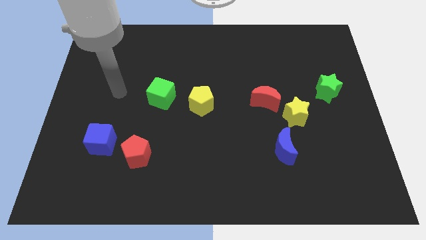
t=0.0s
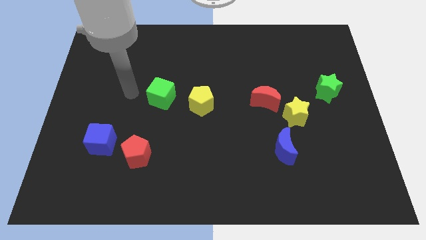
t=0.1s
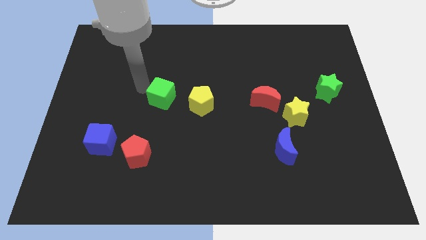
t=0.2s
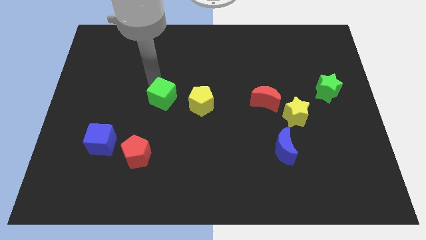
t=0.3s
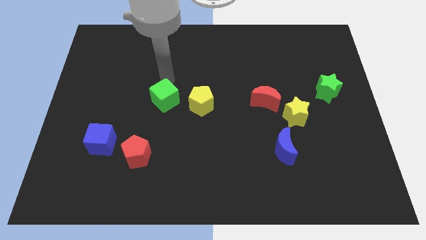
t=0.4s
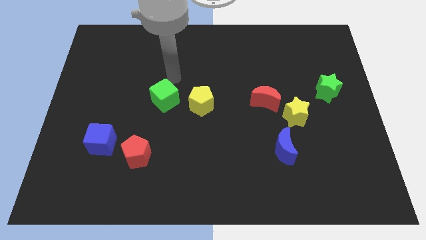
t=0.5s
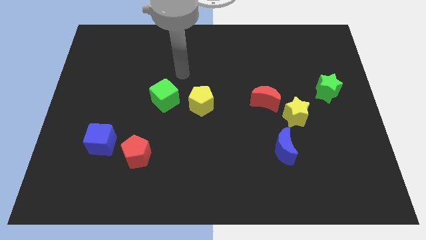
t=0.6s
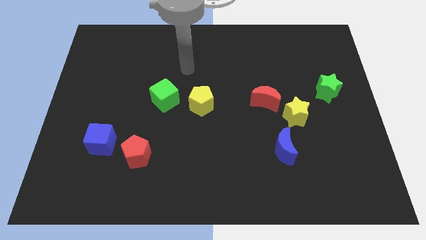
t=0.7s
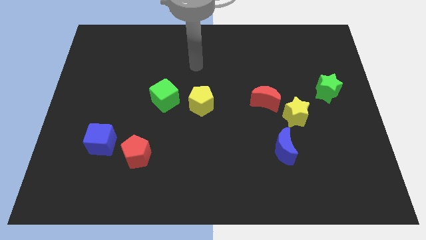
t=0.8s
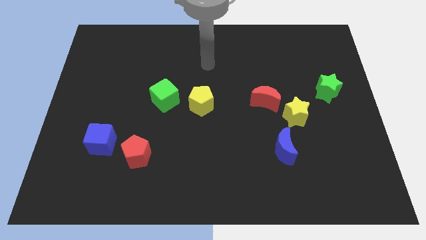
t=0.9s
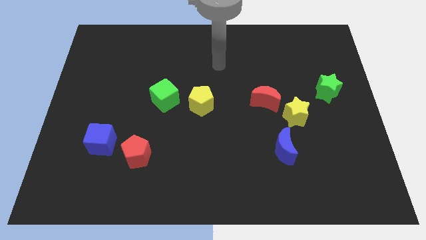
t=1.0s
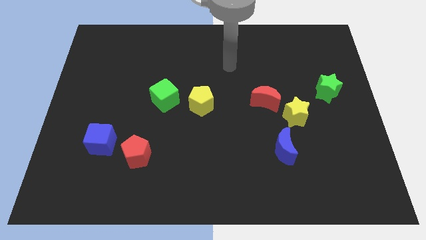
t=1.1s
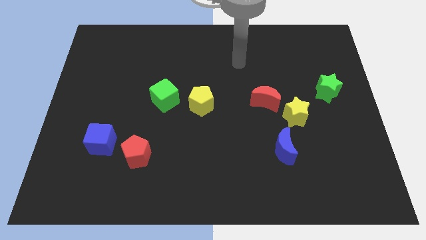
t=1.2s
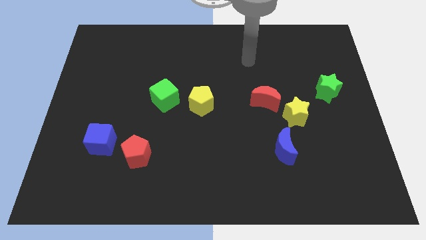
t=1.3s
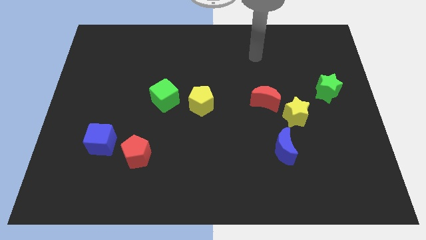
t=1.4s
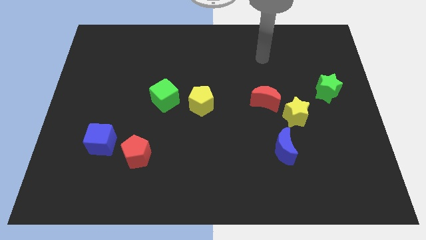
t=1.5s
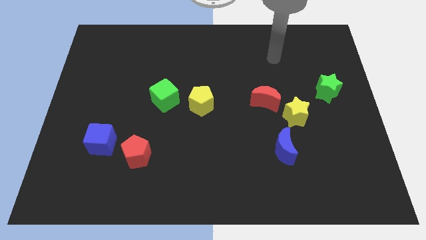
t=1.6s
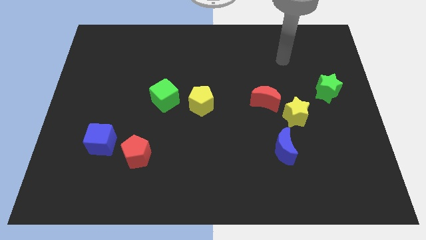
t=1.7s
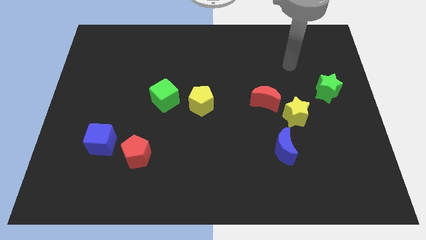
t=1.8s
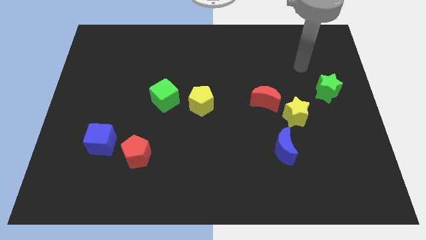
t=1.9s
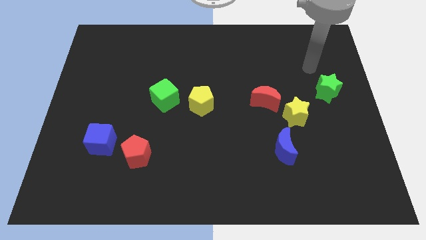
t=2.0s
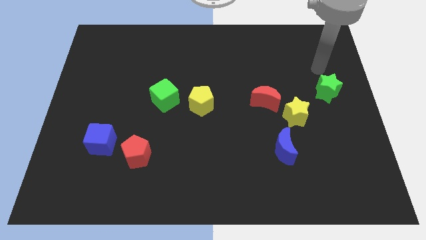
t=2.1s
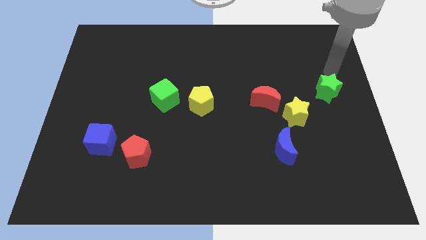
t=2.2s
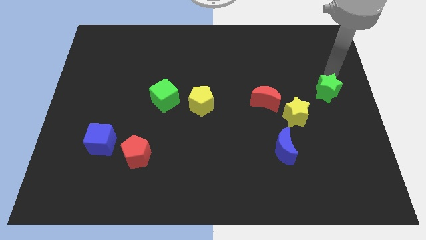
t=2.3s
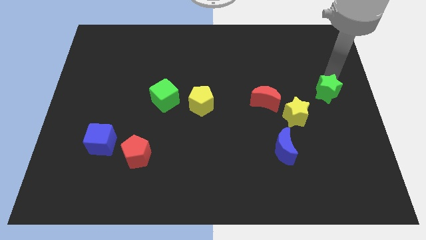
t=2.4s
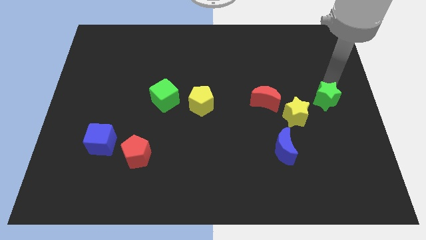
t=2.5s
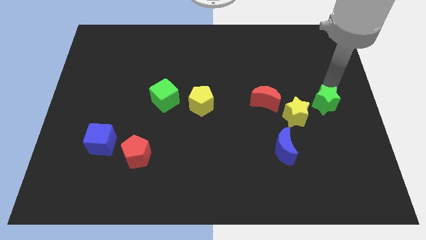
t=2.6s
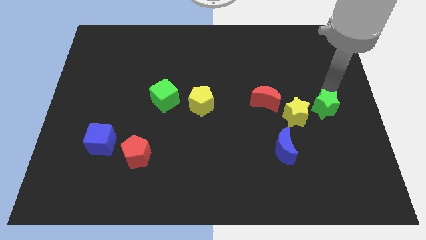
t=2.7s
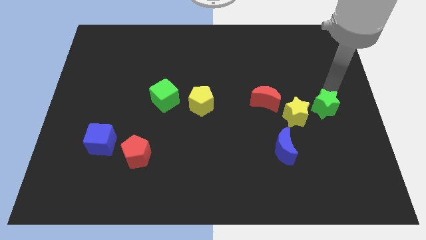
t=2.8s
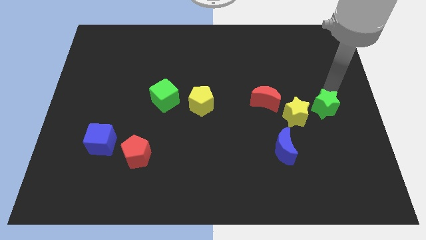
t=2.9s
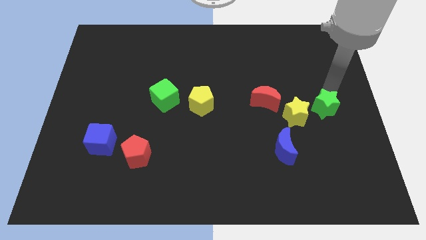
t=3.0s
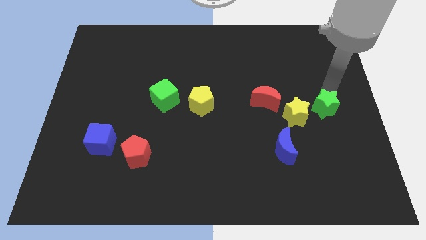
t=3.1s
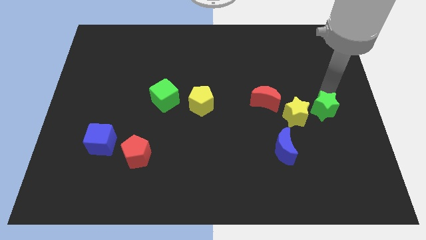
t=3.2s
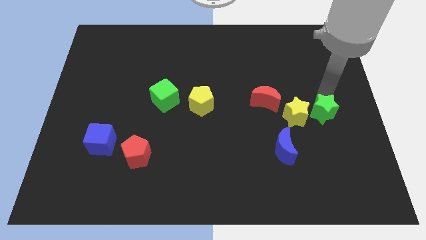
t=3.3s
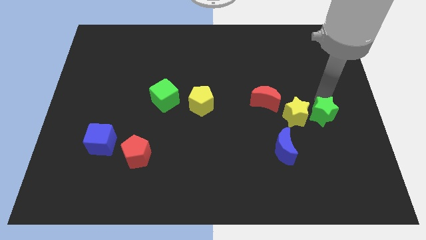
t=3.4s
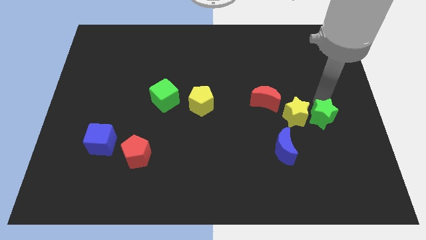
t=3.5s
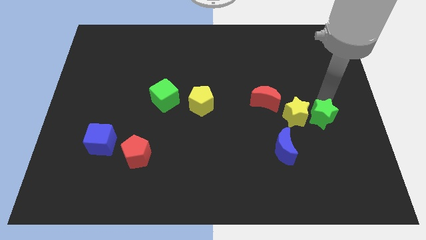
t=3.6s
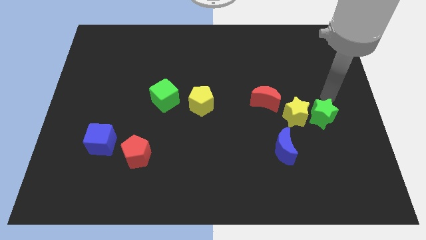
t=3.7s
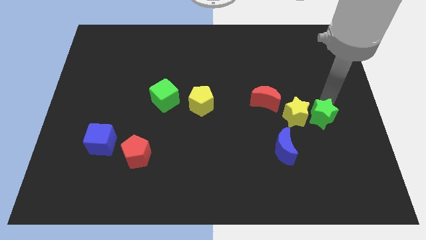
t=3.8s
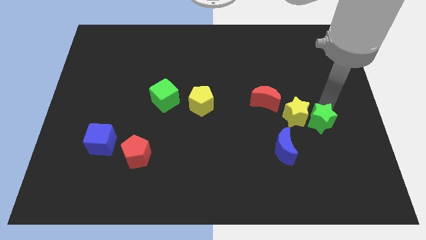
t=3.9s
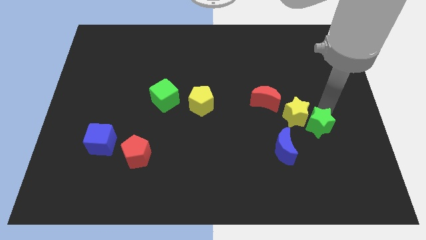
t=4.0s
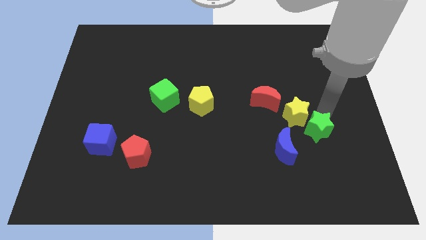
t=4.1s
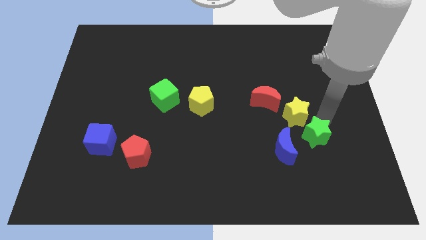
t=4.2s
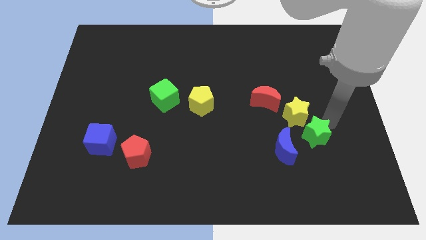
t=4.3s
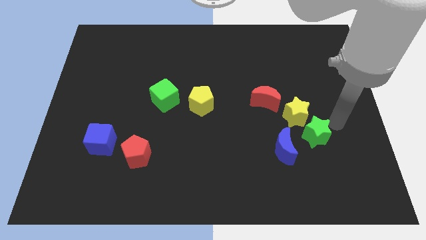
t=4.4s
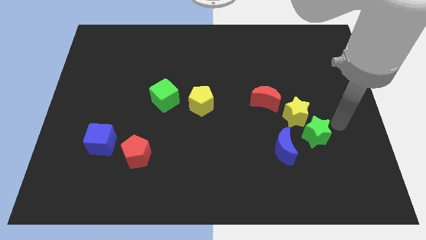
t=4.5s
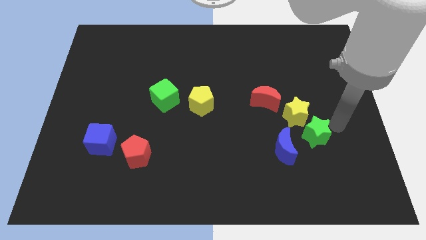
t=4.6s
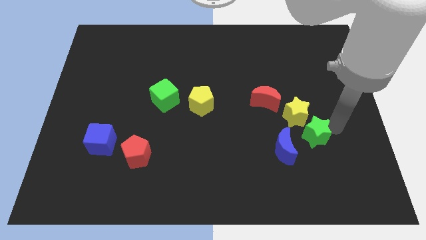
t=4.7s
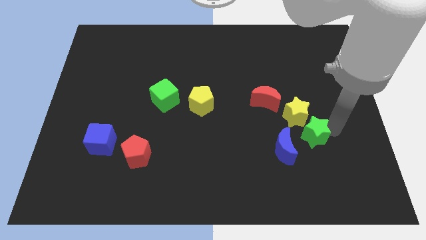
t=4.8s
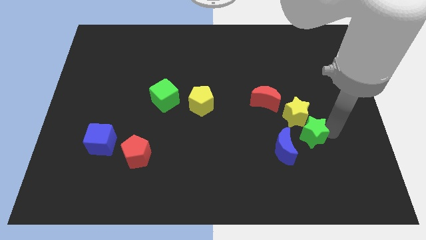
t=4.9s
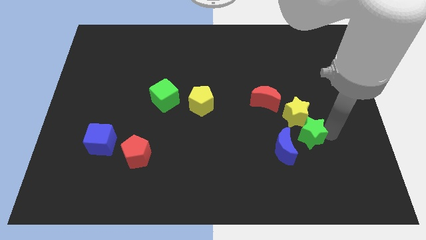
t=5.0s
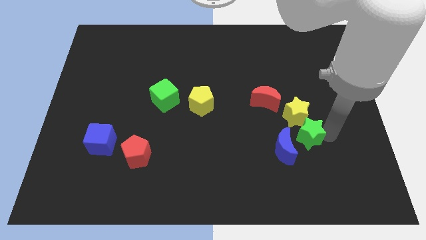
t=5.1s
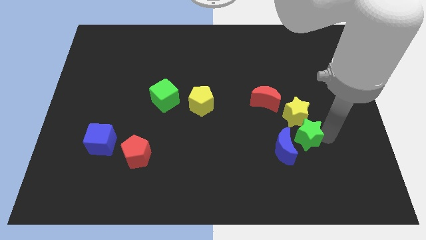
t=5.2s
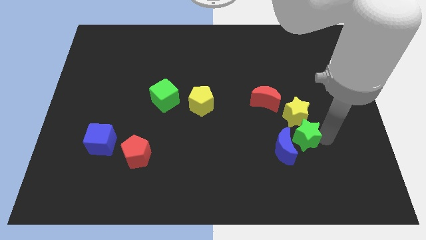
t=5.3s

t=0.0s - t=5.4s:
slide the green star next to the blue moon

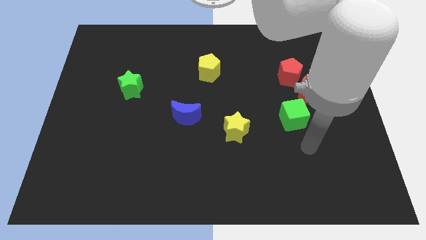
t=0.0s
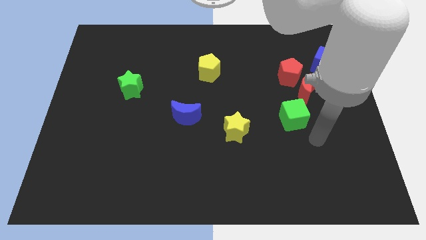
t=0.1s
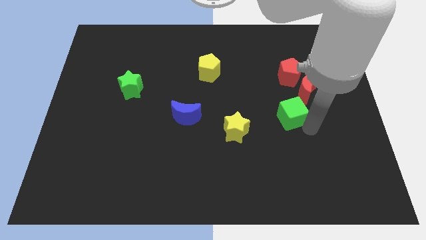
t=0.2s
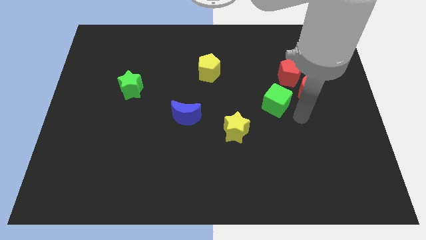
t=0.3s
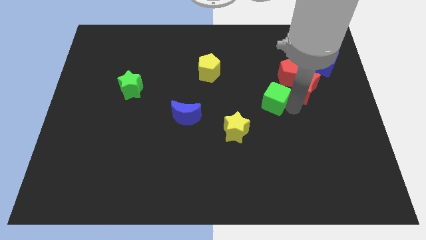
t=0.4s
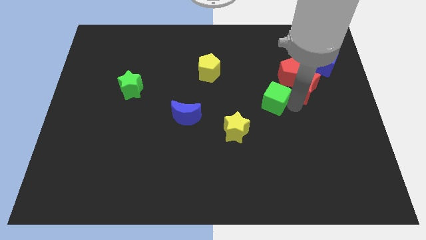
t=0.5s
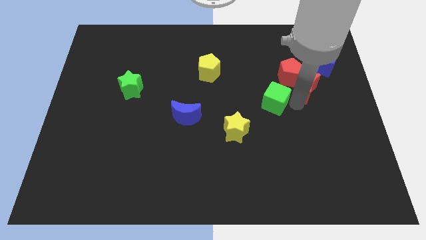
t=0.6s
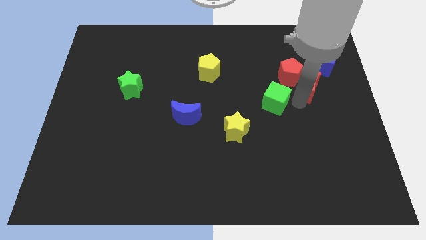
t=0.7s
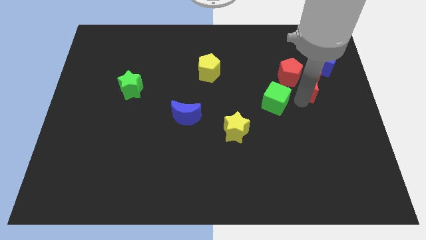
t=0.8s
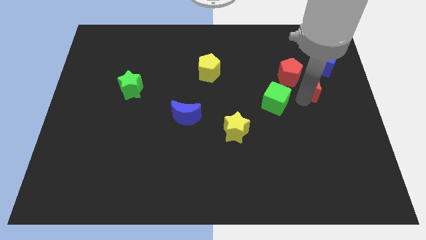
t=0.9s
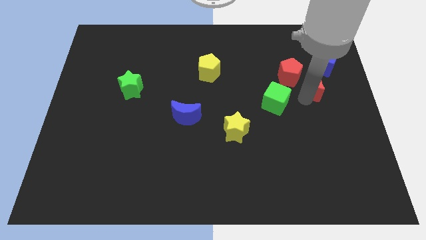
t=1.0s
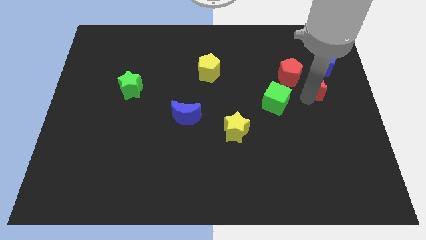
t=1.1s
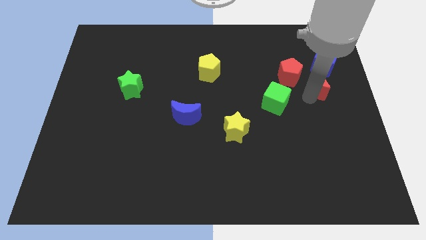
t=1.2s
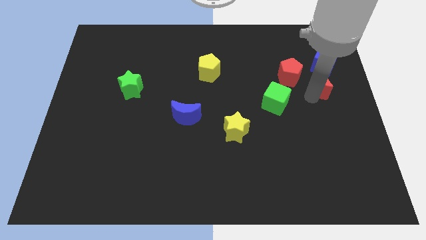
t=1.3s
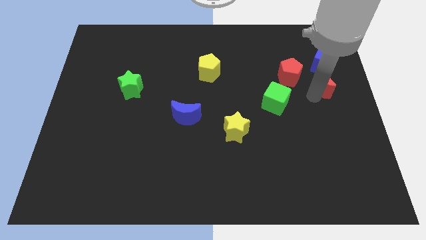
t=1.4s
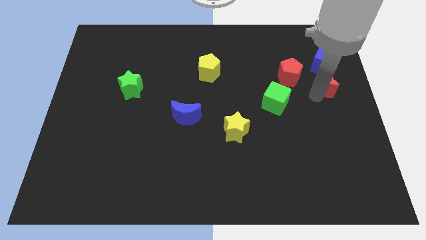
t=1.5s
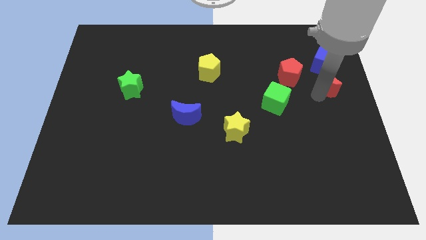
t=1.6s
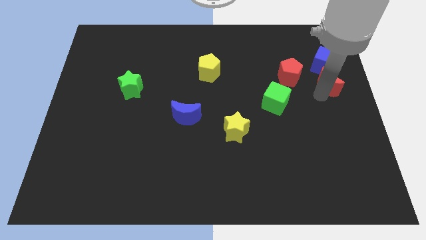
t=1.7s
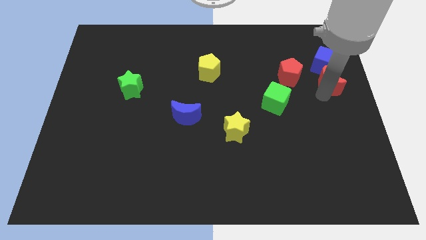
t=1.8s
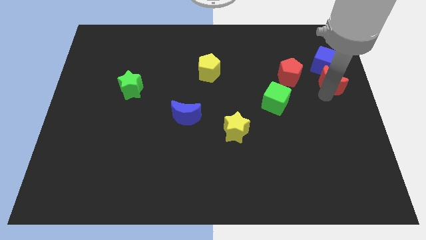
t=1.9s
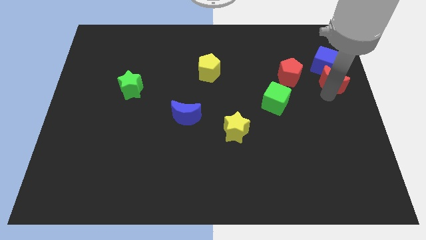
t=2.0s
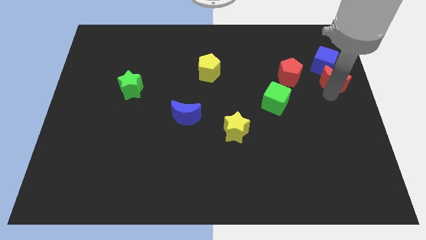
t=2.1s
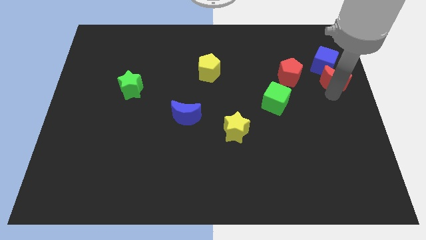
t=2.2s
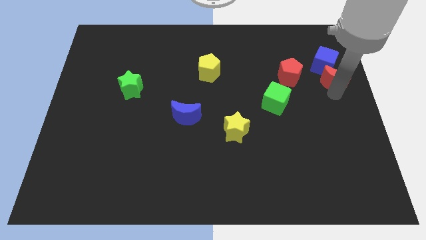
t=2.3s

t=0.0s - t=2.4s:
move the red moon close to the blue cube
